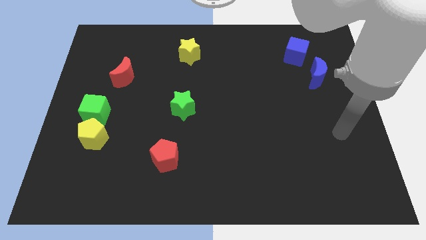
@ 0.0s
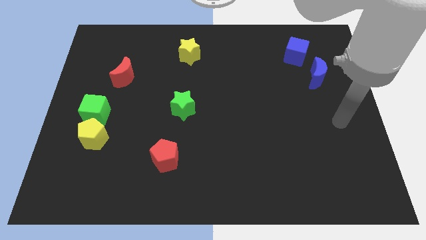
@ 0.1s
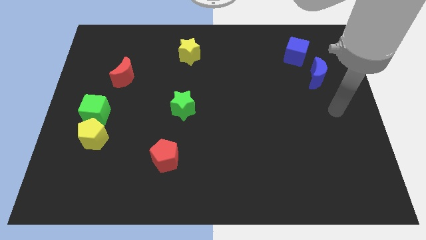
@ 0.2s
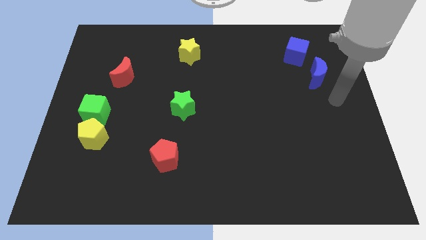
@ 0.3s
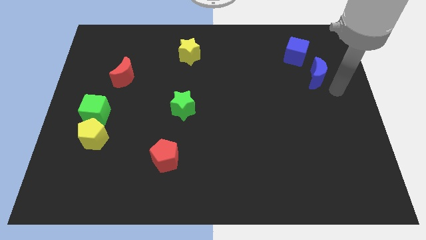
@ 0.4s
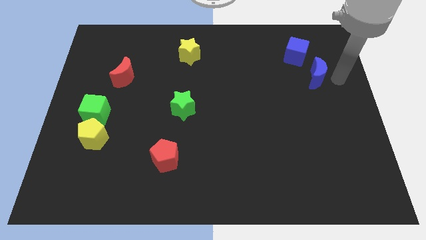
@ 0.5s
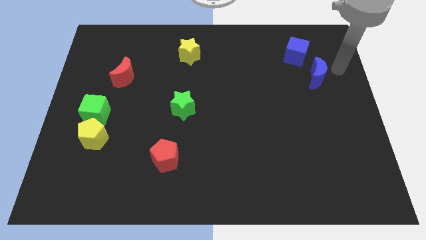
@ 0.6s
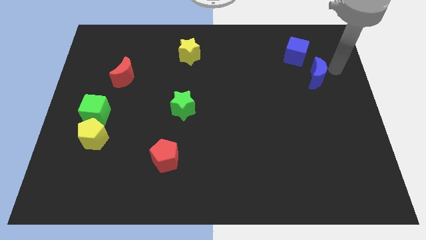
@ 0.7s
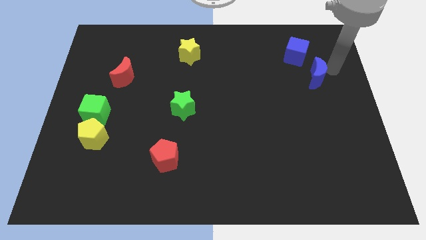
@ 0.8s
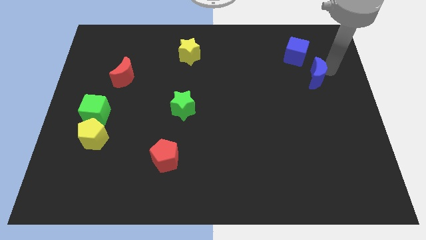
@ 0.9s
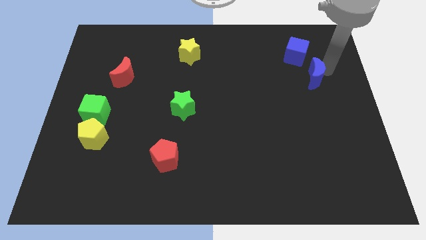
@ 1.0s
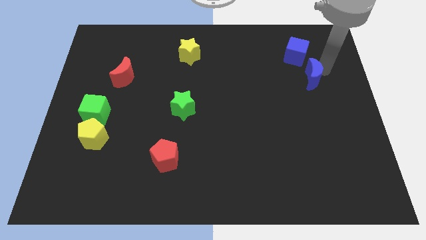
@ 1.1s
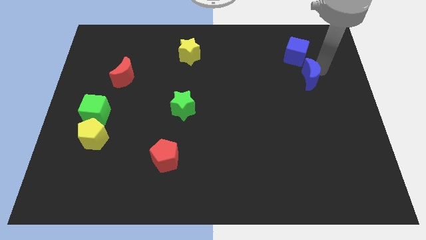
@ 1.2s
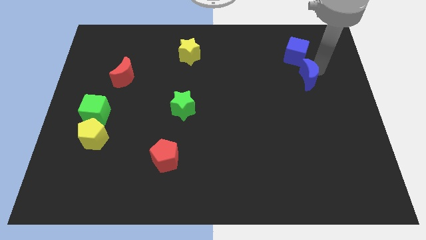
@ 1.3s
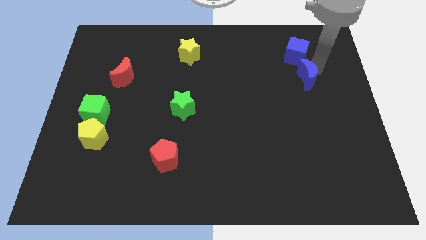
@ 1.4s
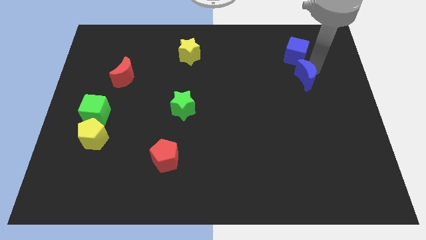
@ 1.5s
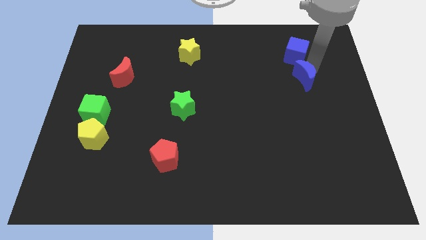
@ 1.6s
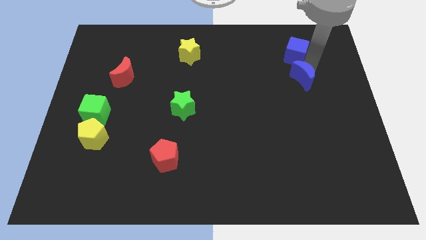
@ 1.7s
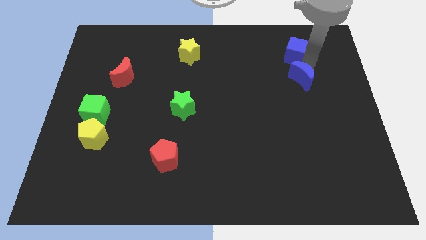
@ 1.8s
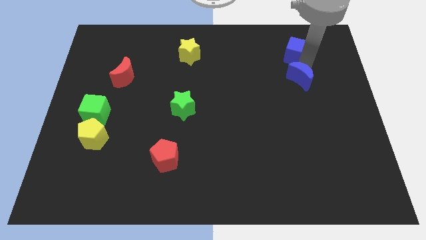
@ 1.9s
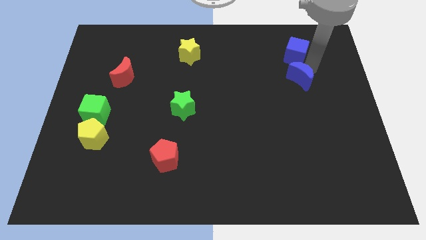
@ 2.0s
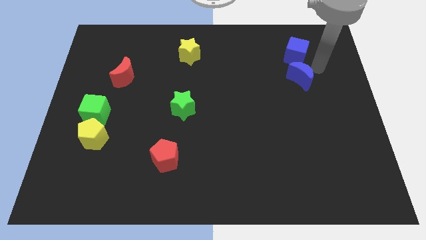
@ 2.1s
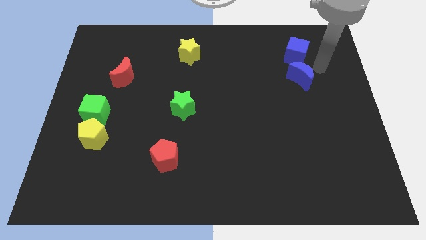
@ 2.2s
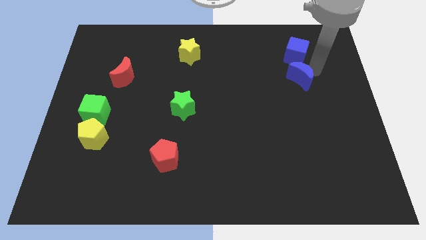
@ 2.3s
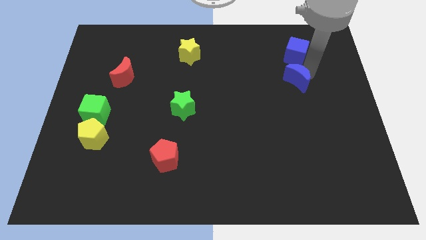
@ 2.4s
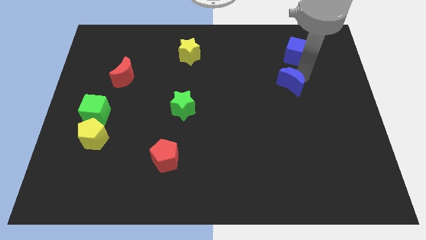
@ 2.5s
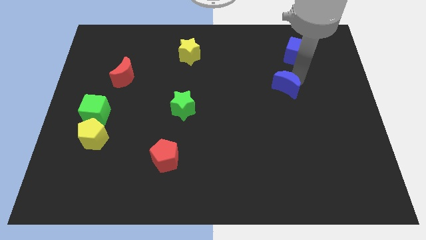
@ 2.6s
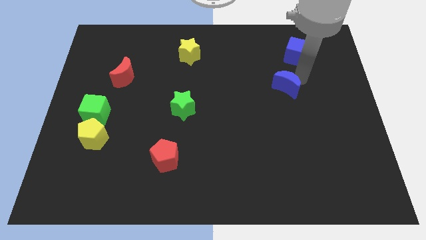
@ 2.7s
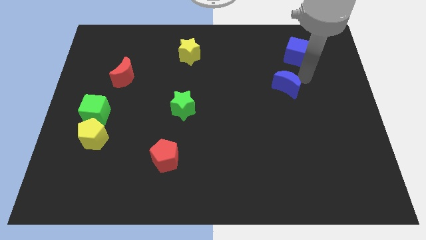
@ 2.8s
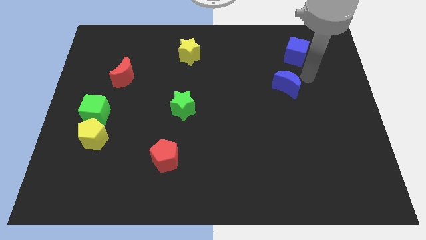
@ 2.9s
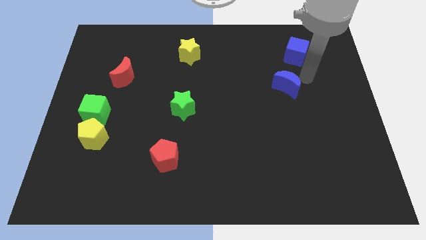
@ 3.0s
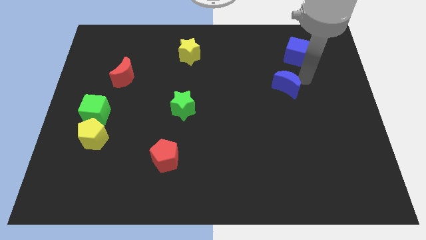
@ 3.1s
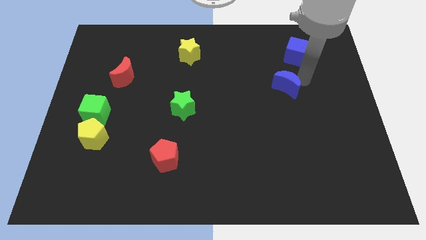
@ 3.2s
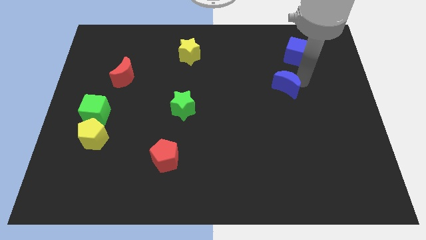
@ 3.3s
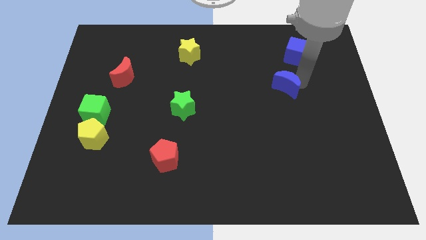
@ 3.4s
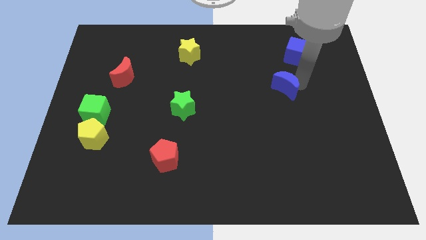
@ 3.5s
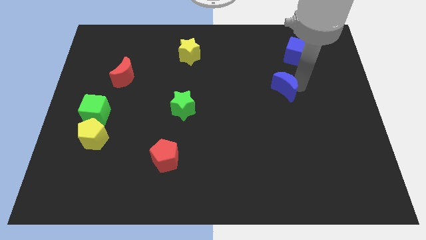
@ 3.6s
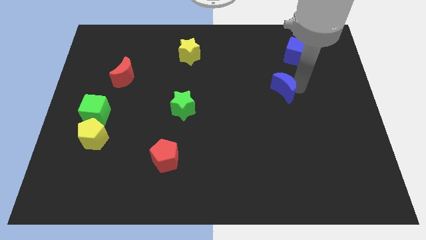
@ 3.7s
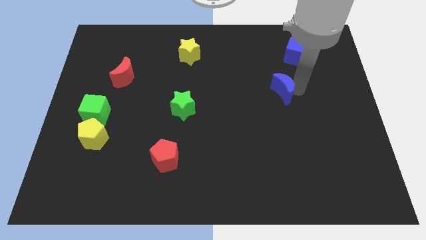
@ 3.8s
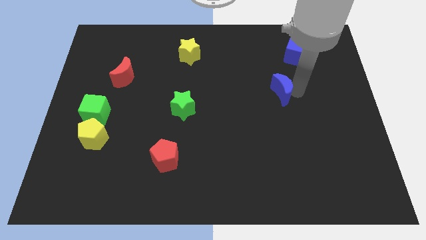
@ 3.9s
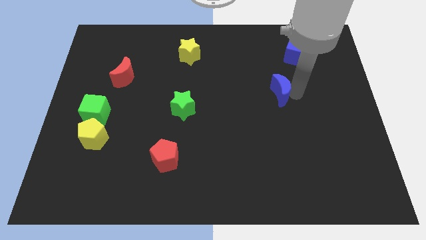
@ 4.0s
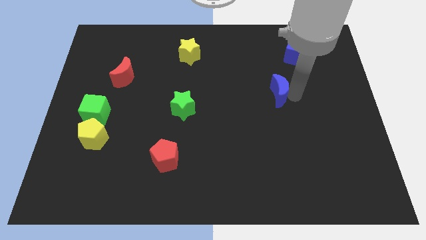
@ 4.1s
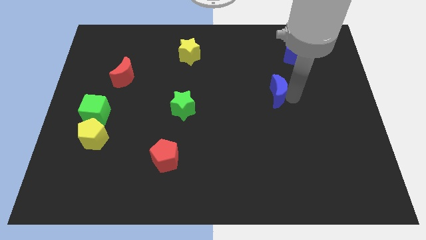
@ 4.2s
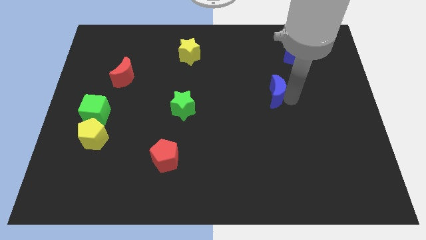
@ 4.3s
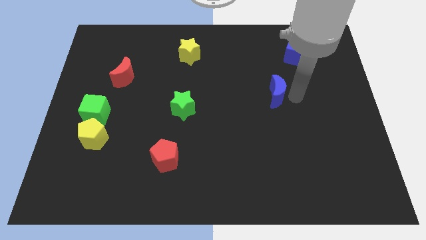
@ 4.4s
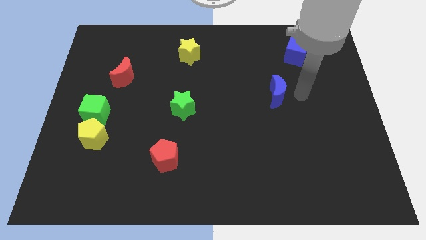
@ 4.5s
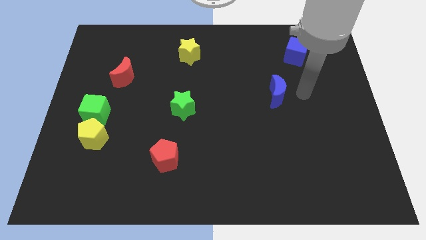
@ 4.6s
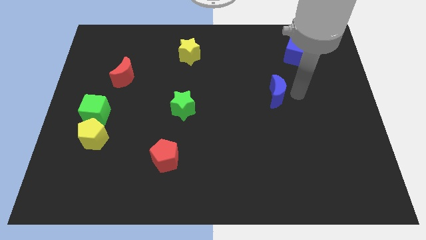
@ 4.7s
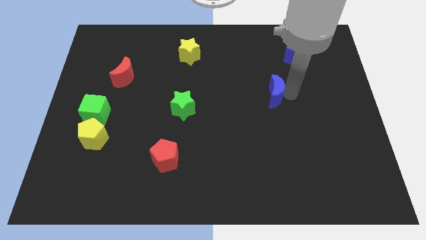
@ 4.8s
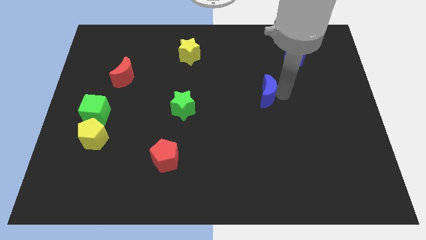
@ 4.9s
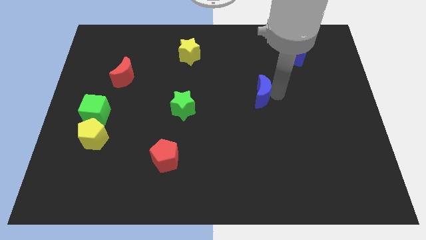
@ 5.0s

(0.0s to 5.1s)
slide the blue moon to the middle of the board
